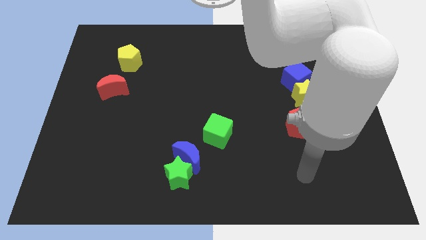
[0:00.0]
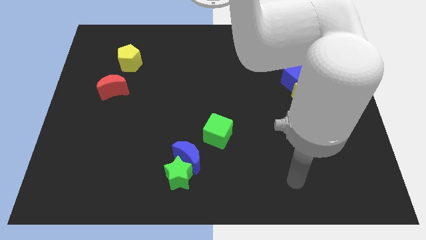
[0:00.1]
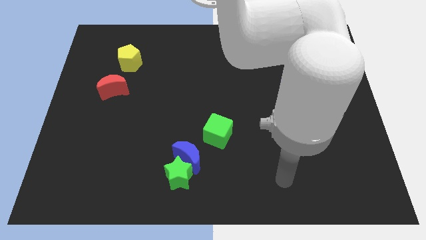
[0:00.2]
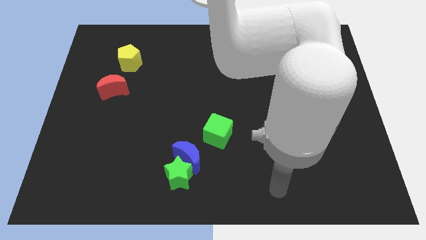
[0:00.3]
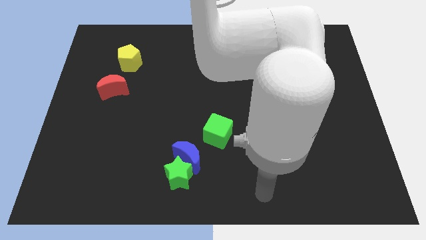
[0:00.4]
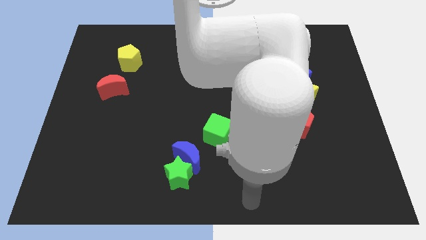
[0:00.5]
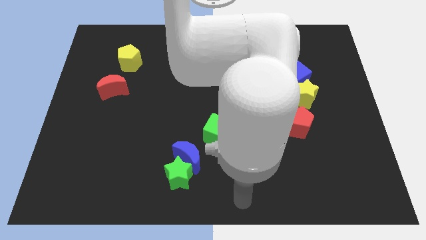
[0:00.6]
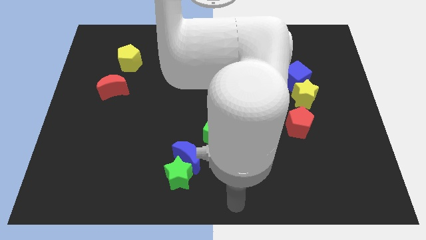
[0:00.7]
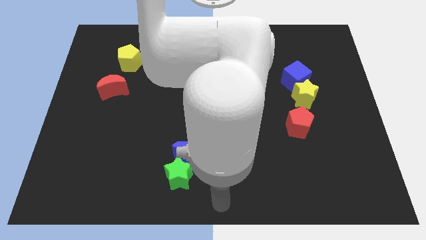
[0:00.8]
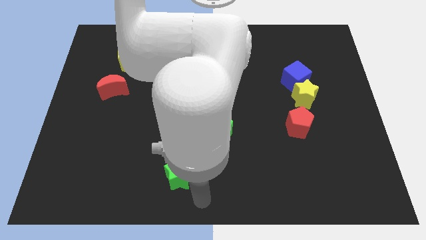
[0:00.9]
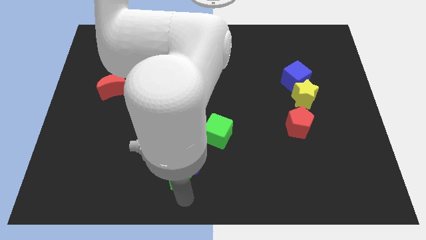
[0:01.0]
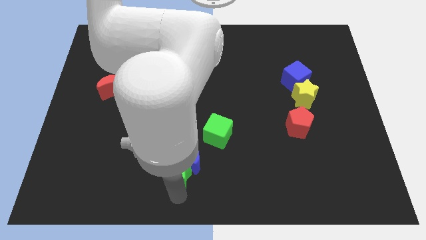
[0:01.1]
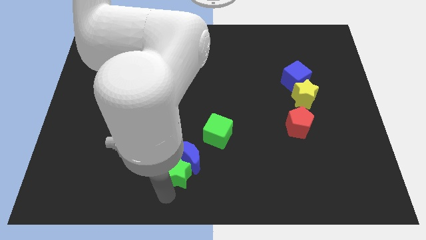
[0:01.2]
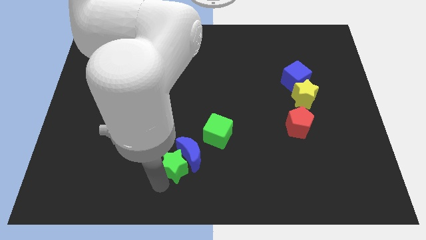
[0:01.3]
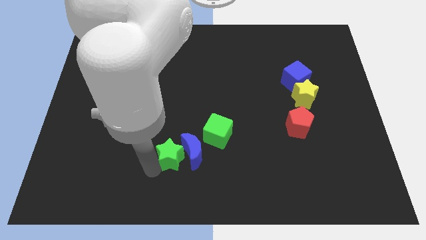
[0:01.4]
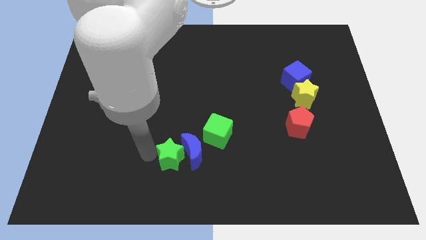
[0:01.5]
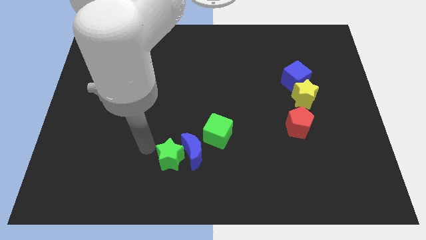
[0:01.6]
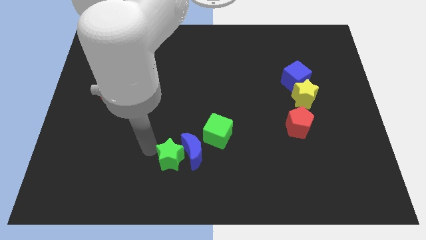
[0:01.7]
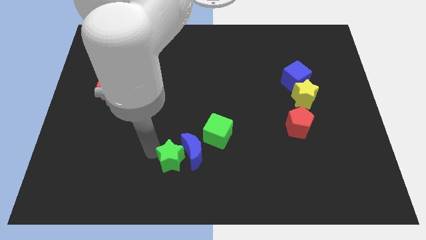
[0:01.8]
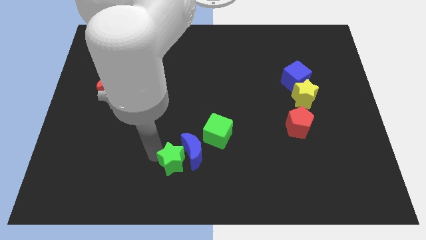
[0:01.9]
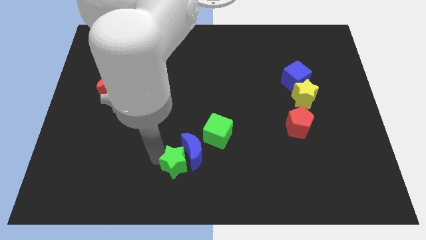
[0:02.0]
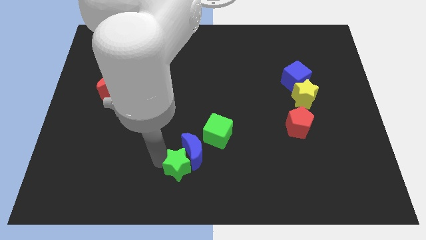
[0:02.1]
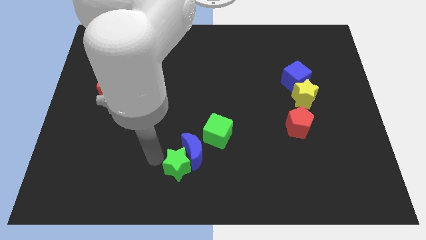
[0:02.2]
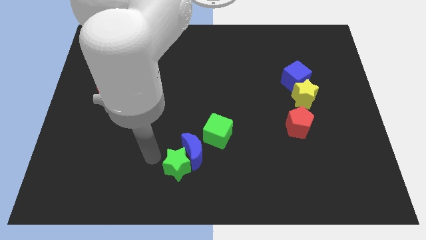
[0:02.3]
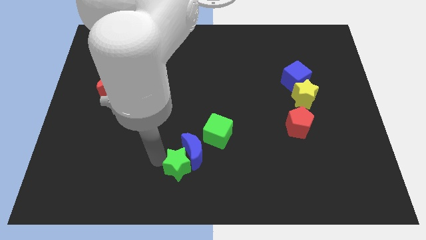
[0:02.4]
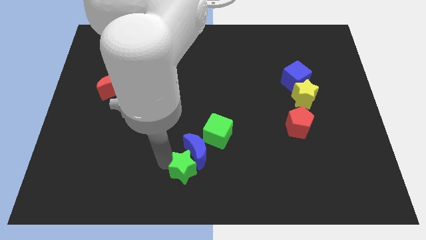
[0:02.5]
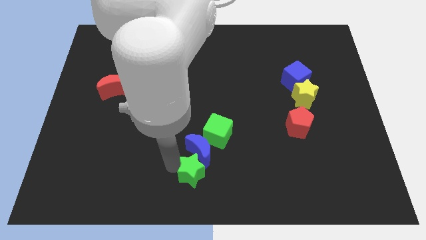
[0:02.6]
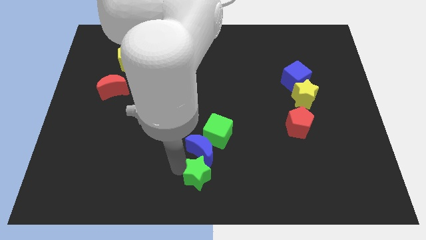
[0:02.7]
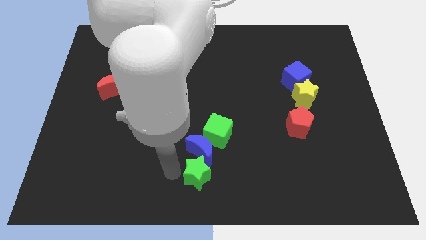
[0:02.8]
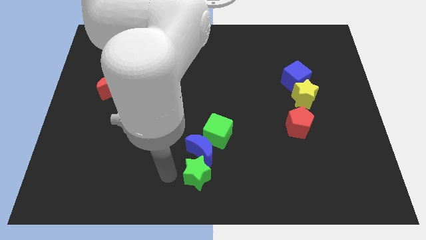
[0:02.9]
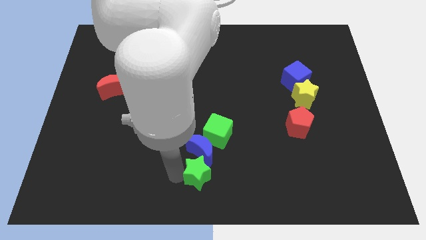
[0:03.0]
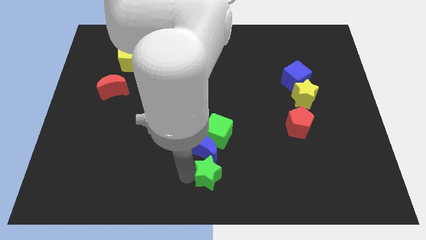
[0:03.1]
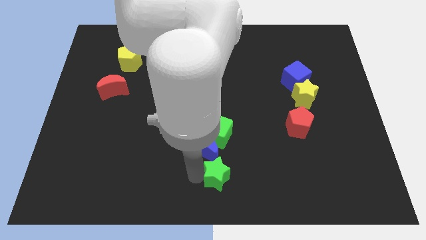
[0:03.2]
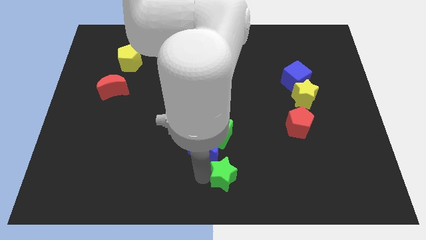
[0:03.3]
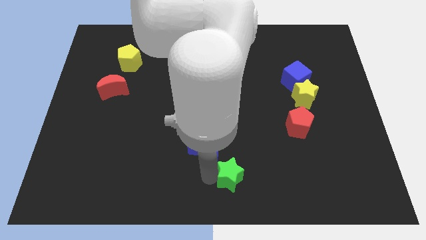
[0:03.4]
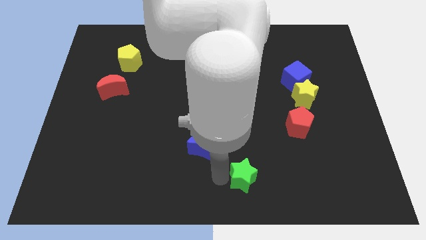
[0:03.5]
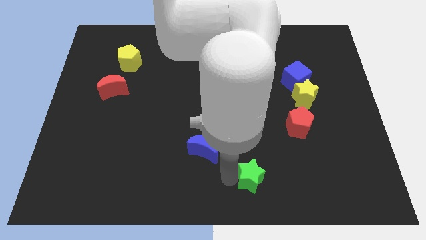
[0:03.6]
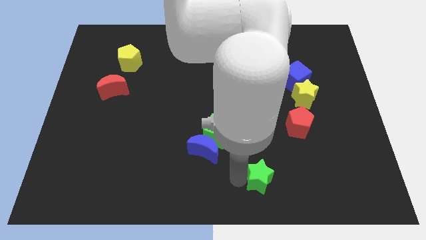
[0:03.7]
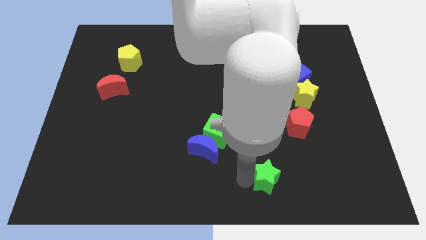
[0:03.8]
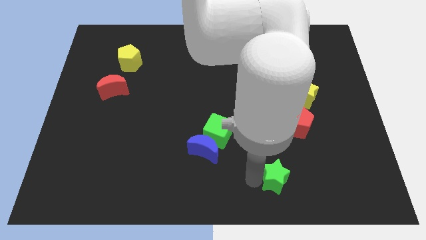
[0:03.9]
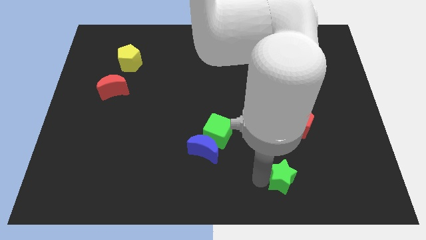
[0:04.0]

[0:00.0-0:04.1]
slide the green star right

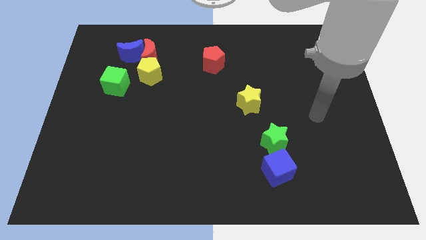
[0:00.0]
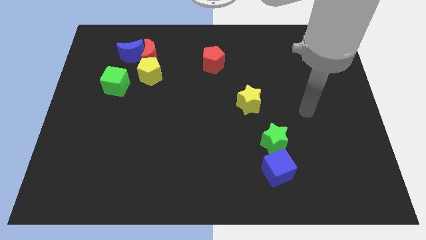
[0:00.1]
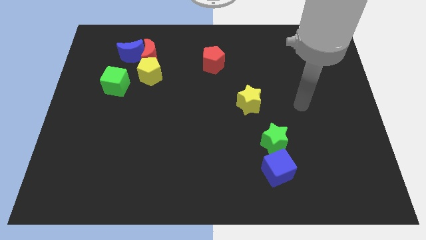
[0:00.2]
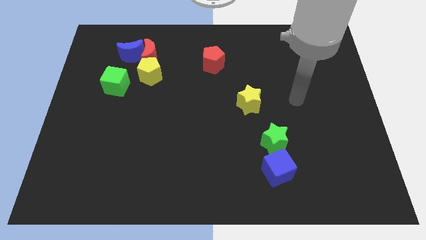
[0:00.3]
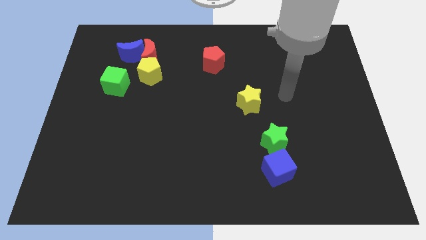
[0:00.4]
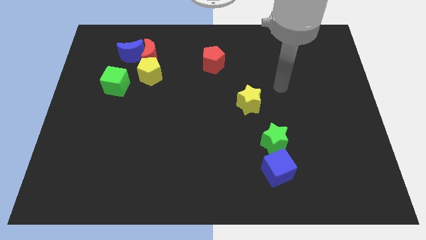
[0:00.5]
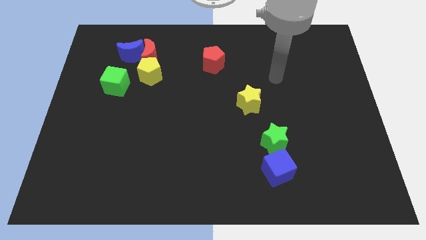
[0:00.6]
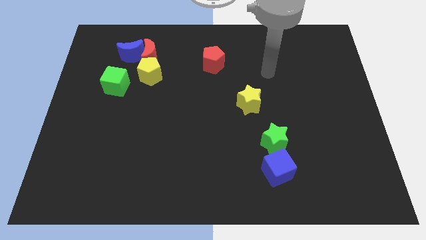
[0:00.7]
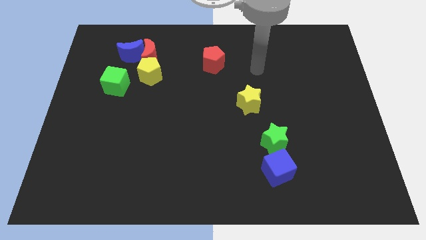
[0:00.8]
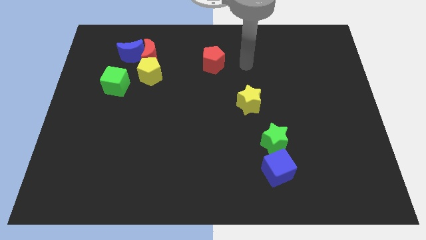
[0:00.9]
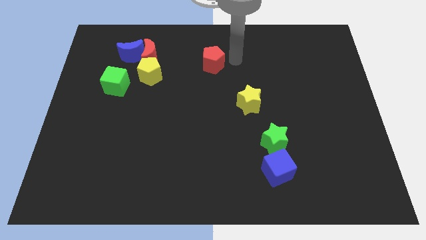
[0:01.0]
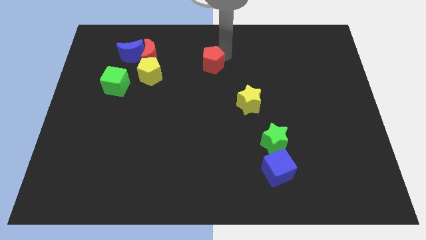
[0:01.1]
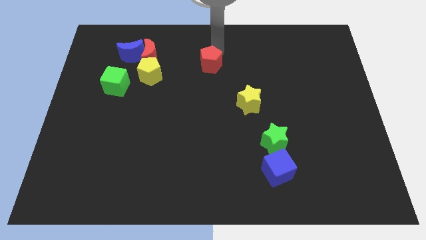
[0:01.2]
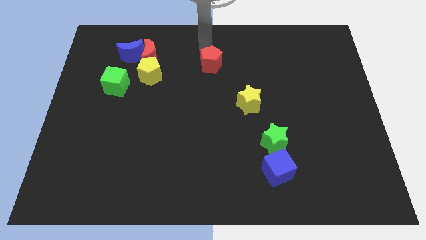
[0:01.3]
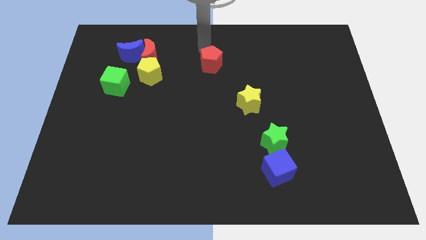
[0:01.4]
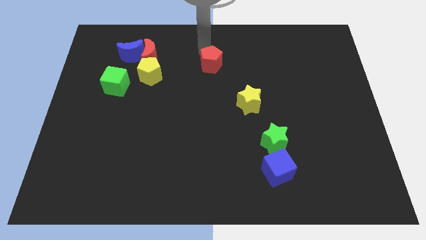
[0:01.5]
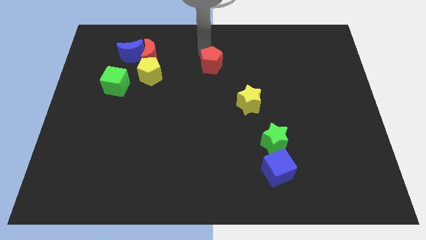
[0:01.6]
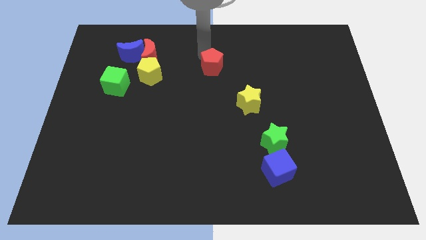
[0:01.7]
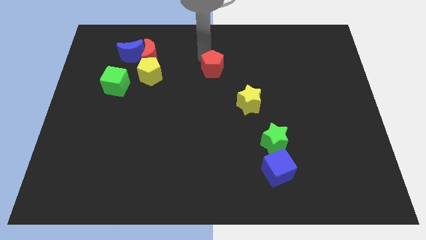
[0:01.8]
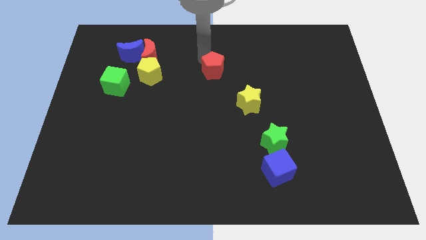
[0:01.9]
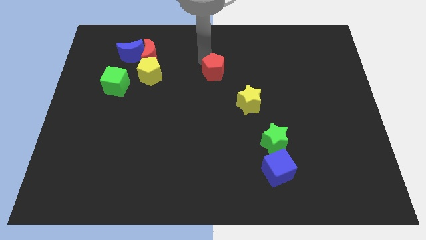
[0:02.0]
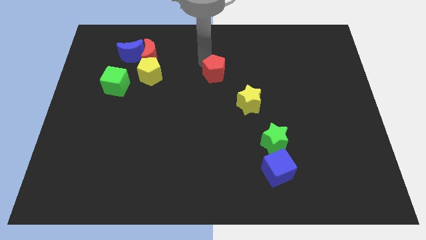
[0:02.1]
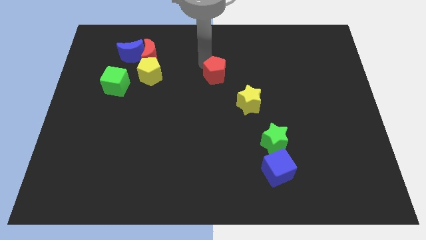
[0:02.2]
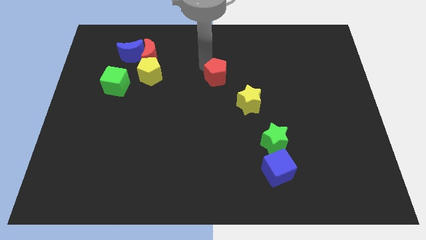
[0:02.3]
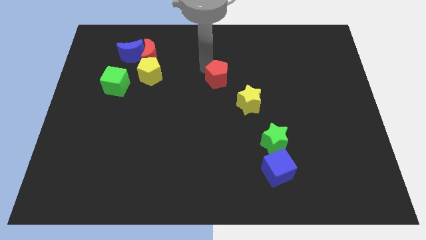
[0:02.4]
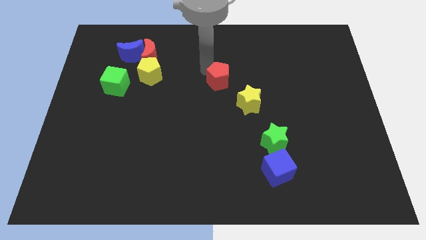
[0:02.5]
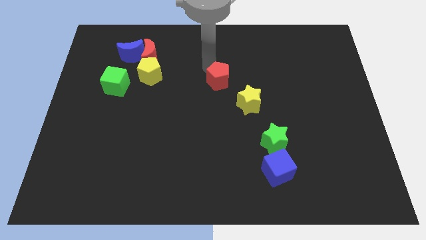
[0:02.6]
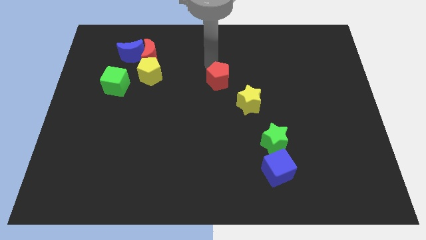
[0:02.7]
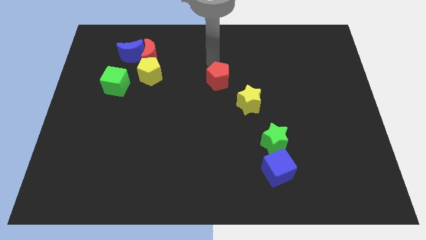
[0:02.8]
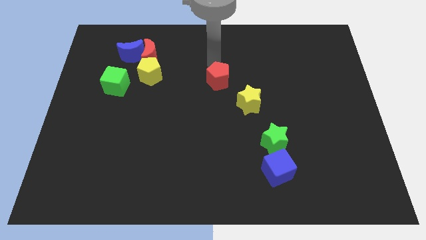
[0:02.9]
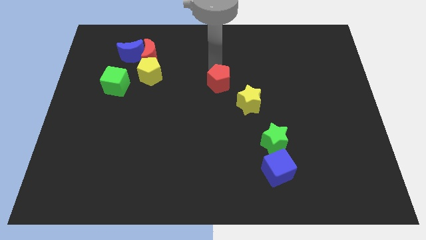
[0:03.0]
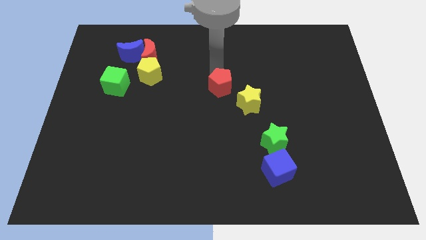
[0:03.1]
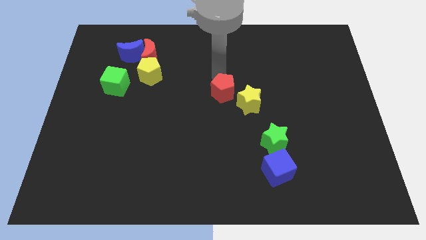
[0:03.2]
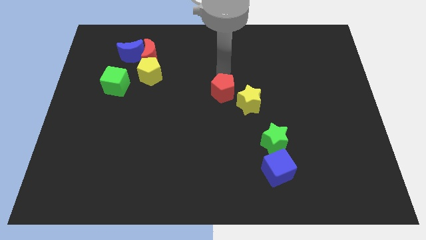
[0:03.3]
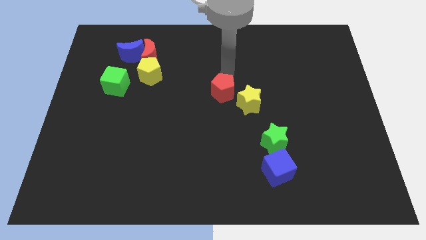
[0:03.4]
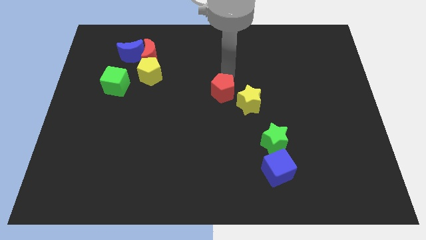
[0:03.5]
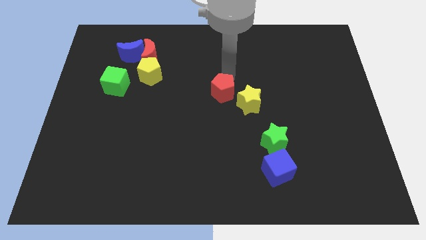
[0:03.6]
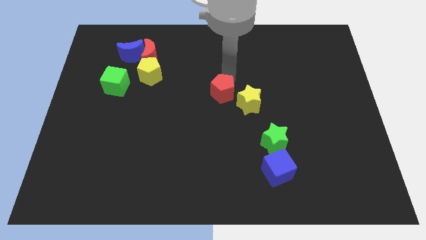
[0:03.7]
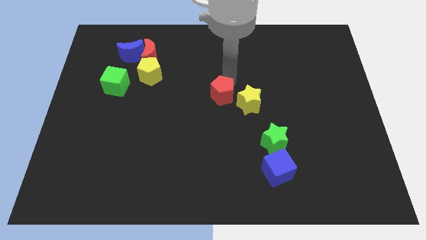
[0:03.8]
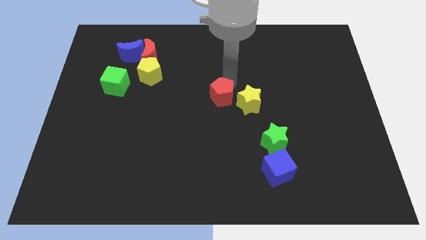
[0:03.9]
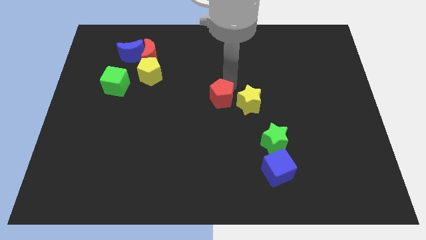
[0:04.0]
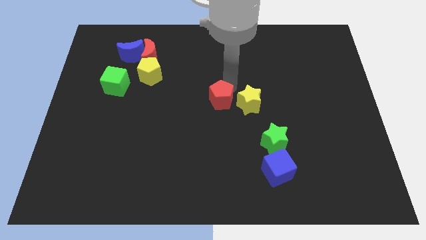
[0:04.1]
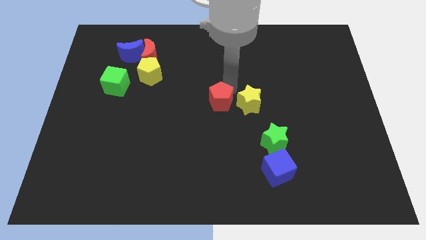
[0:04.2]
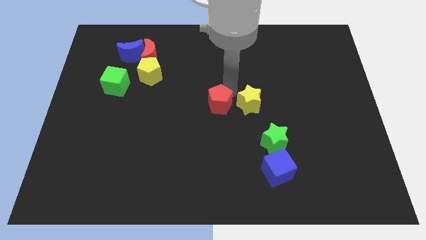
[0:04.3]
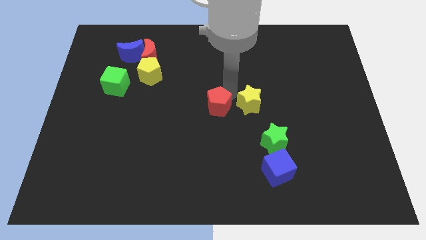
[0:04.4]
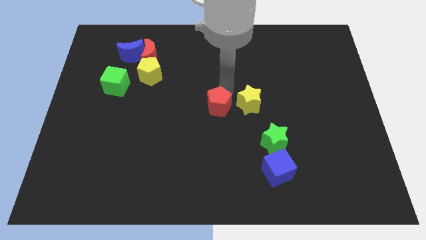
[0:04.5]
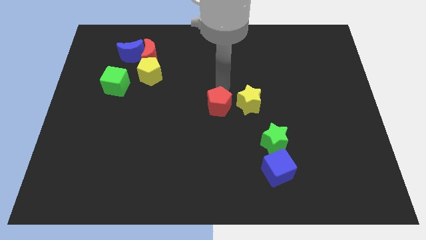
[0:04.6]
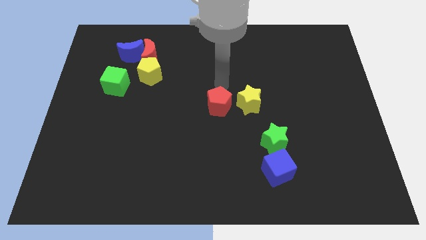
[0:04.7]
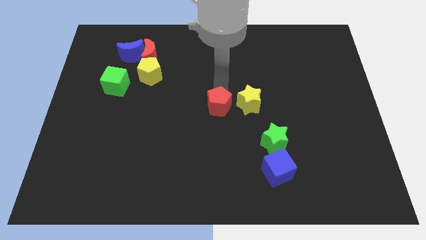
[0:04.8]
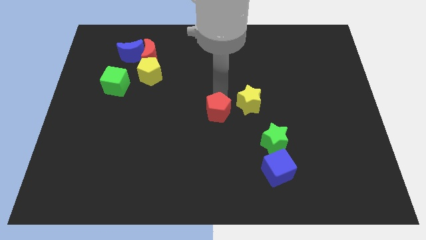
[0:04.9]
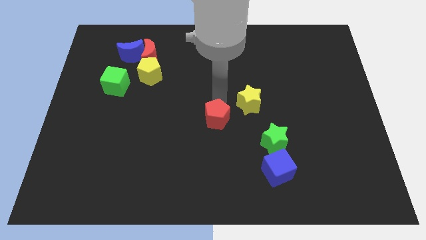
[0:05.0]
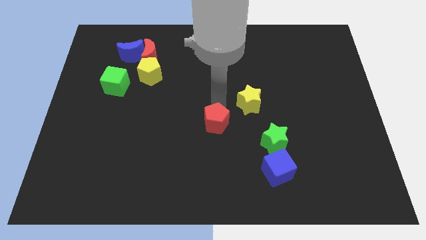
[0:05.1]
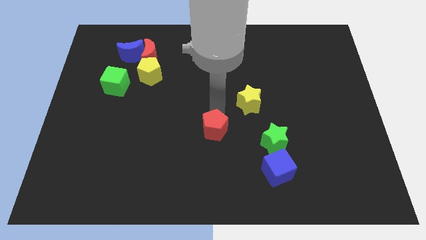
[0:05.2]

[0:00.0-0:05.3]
push the red pentagon down
